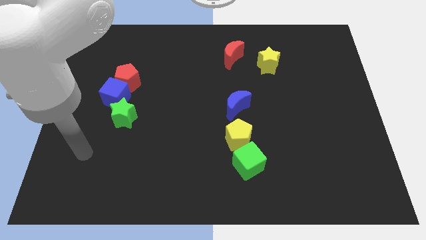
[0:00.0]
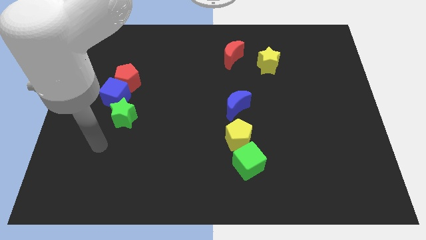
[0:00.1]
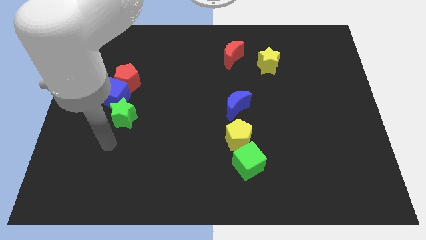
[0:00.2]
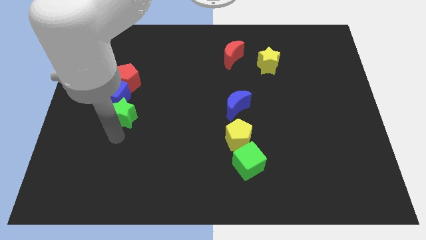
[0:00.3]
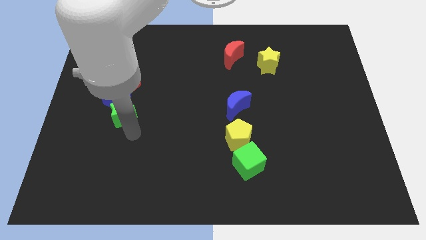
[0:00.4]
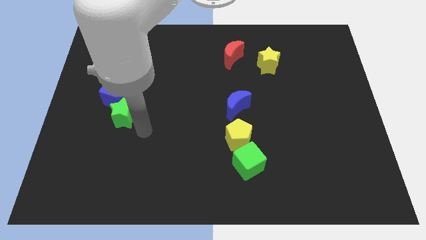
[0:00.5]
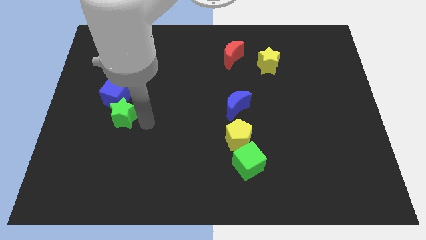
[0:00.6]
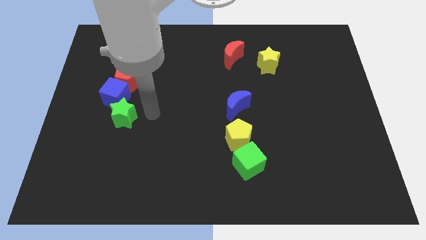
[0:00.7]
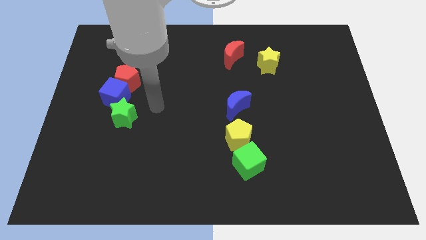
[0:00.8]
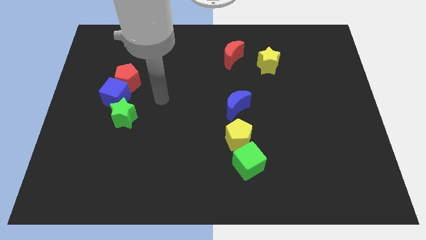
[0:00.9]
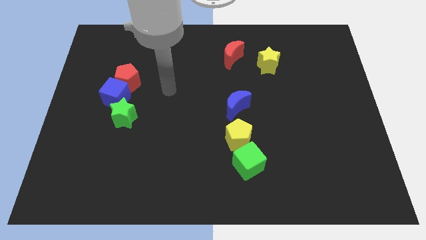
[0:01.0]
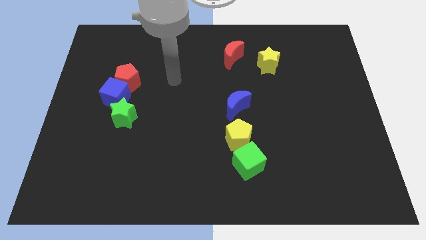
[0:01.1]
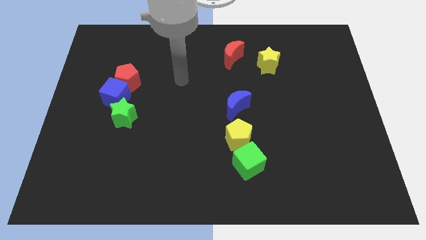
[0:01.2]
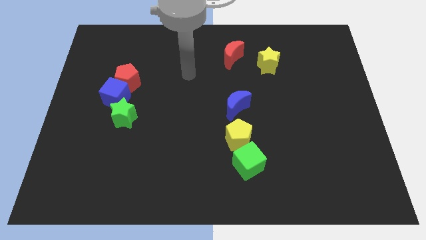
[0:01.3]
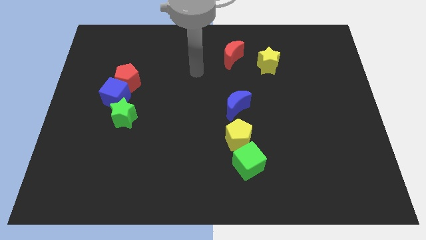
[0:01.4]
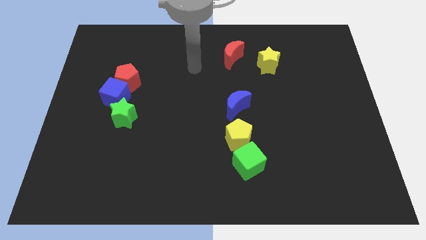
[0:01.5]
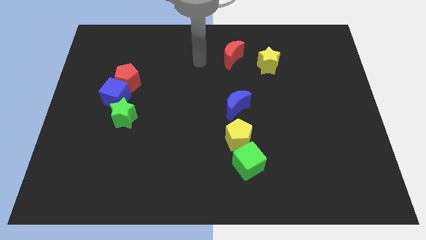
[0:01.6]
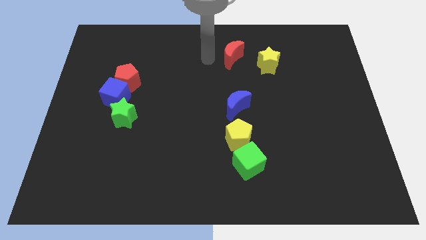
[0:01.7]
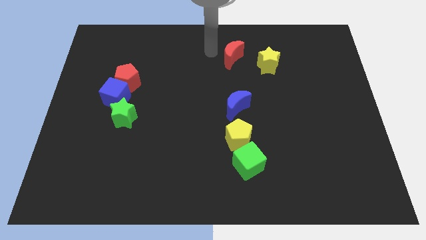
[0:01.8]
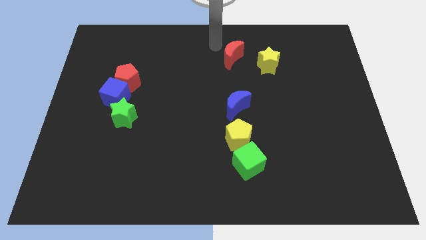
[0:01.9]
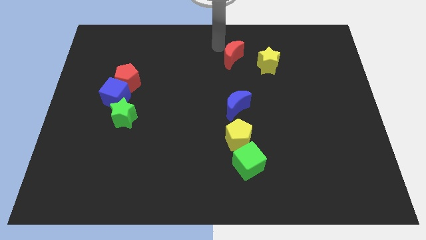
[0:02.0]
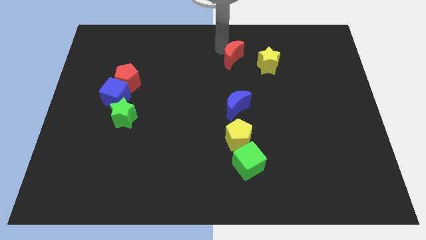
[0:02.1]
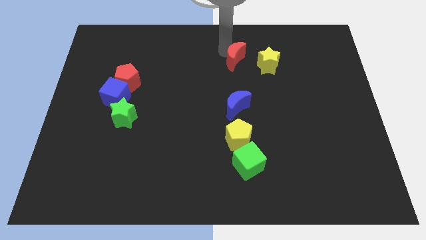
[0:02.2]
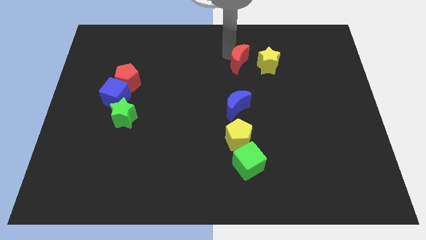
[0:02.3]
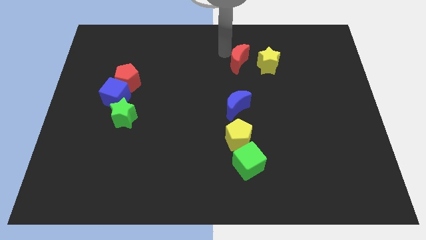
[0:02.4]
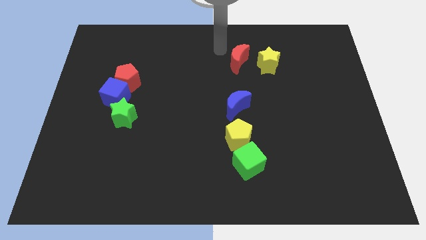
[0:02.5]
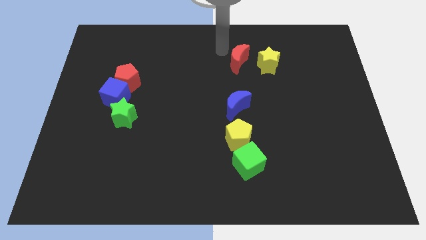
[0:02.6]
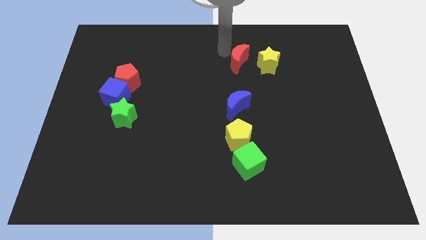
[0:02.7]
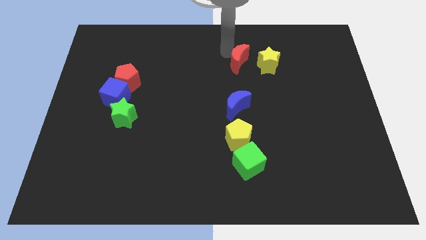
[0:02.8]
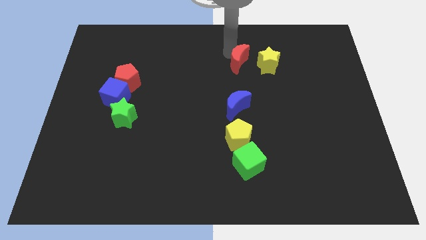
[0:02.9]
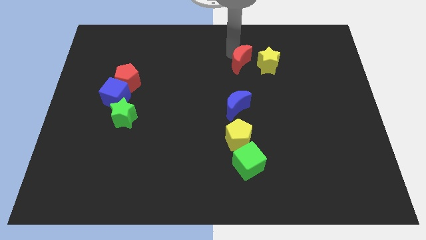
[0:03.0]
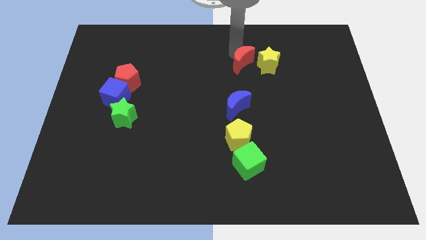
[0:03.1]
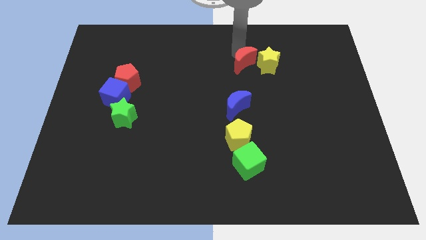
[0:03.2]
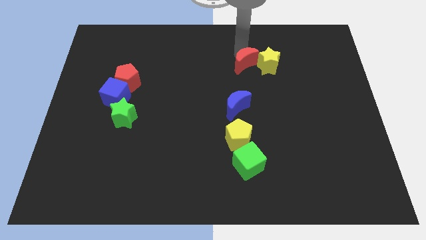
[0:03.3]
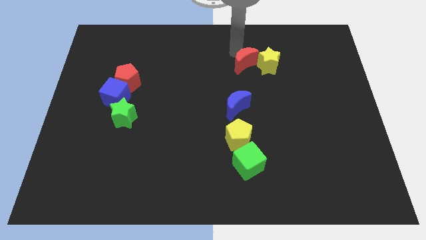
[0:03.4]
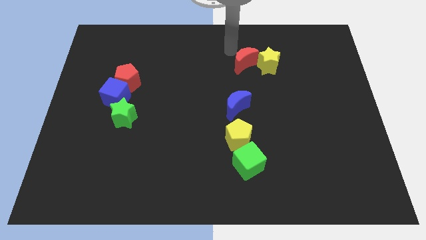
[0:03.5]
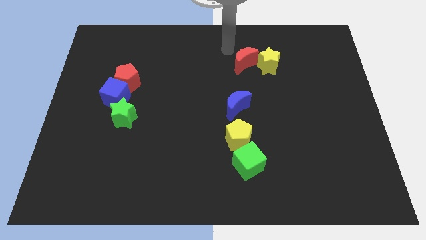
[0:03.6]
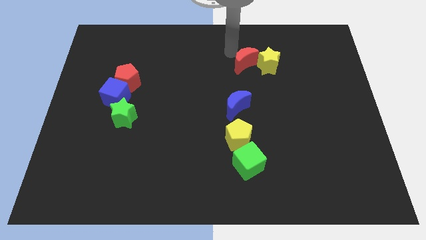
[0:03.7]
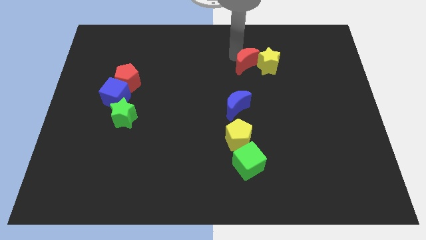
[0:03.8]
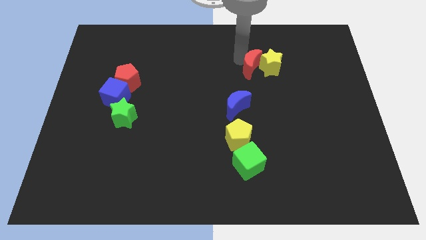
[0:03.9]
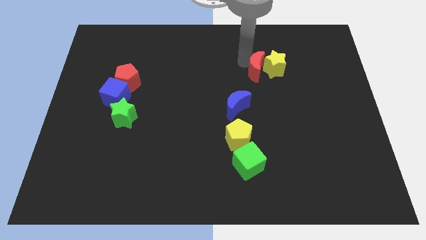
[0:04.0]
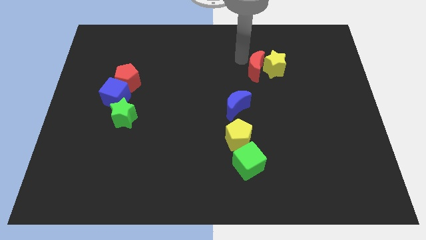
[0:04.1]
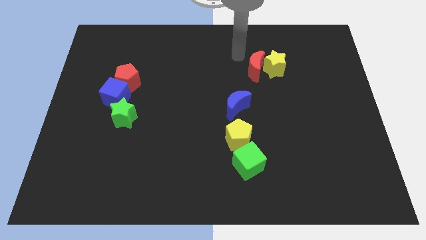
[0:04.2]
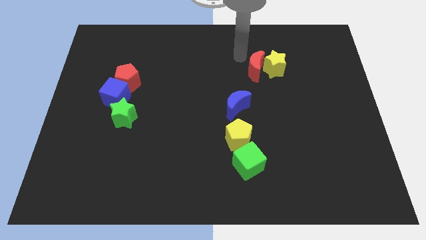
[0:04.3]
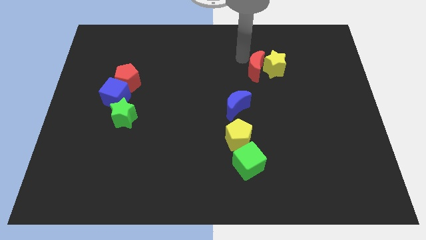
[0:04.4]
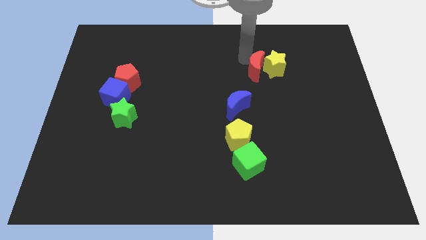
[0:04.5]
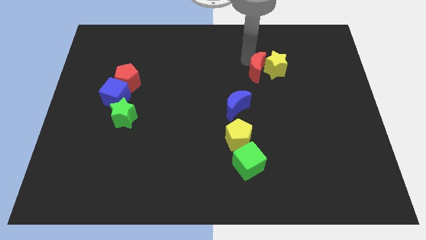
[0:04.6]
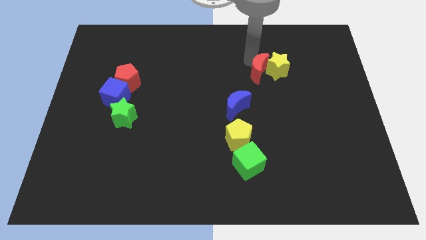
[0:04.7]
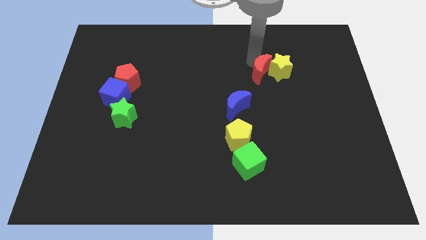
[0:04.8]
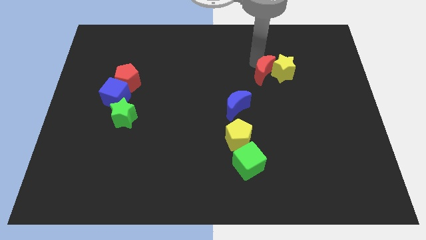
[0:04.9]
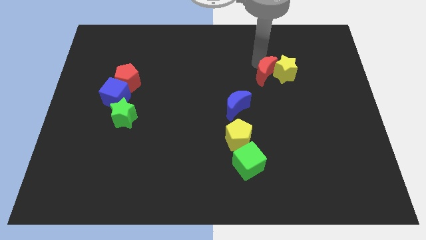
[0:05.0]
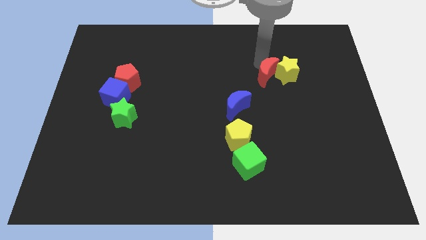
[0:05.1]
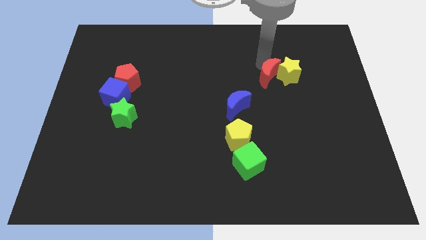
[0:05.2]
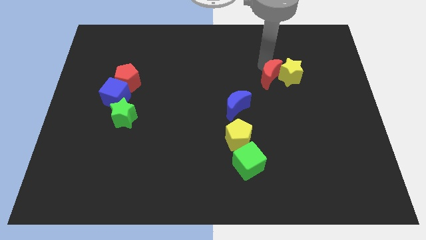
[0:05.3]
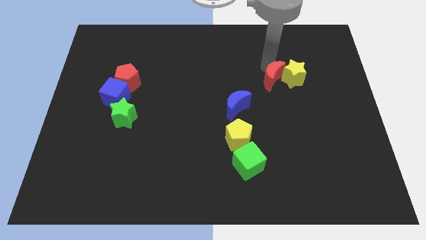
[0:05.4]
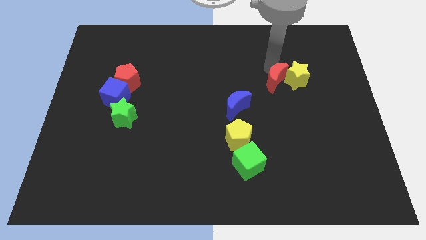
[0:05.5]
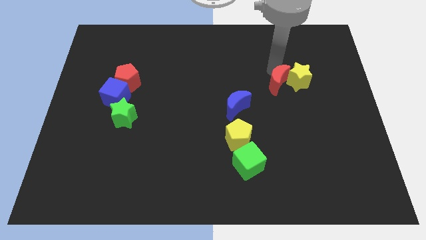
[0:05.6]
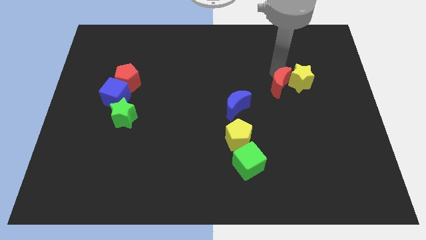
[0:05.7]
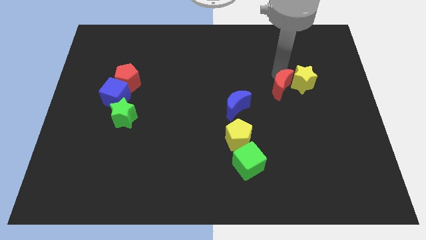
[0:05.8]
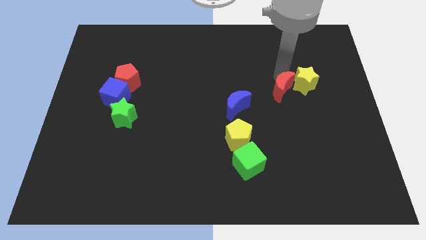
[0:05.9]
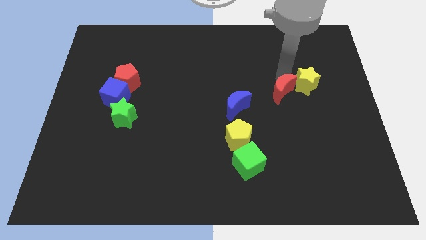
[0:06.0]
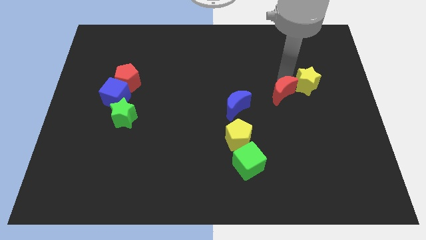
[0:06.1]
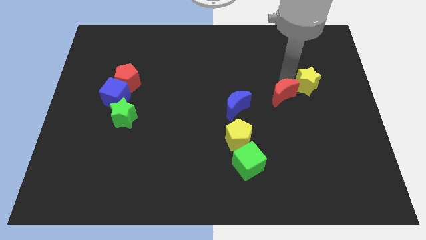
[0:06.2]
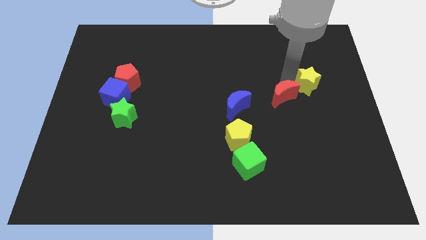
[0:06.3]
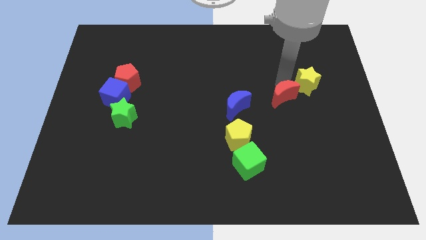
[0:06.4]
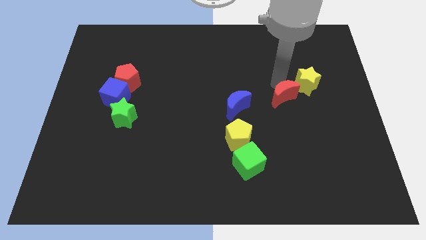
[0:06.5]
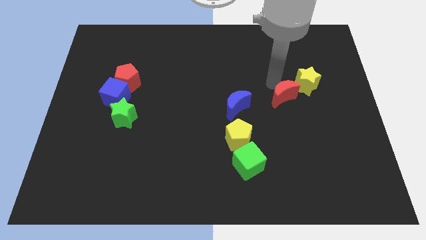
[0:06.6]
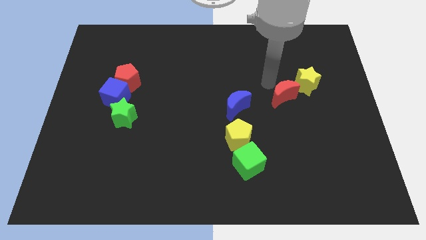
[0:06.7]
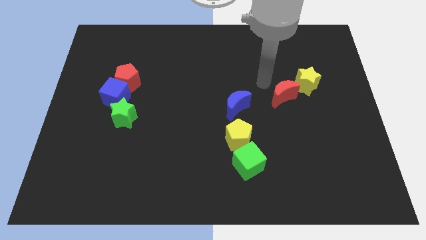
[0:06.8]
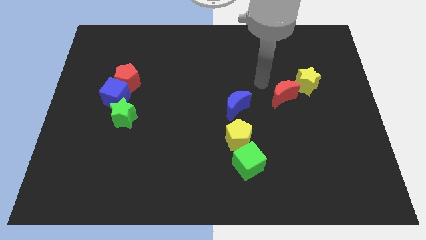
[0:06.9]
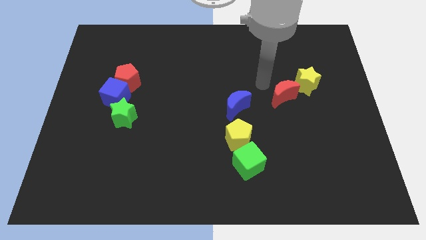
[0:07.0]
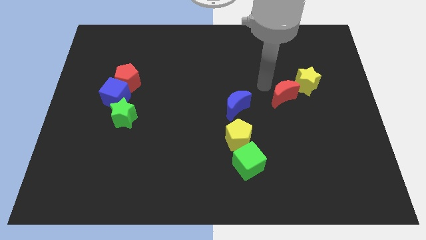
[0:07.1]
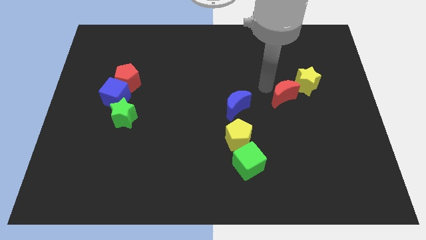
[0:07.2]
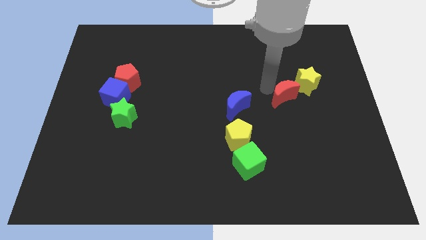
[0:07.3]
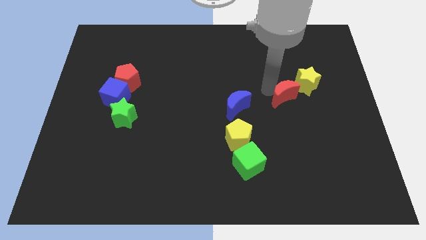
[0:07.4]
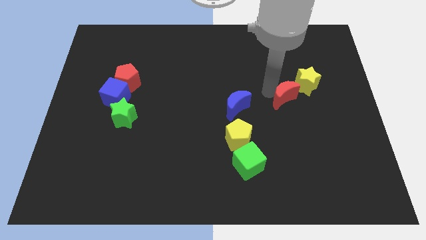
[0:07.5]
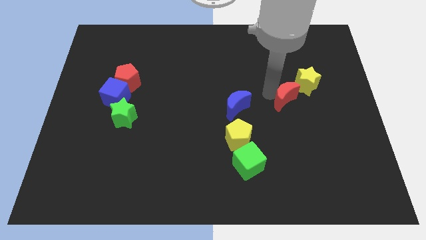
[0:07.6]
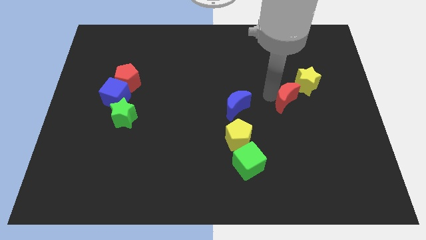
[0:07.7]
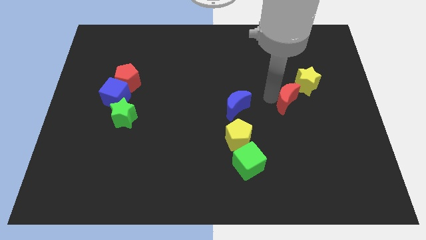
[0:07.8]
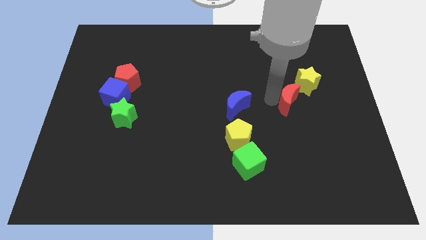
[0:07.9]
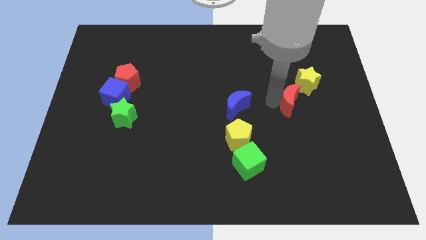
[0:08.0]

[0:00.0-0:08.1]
move the red moon diagonally down and to the right
